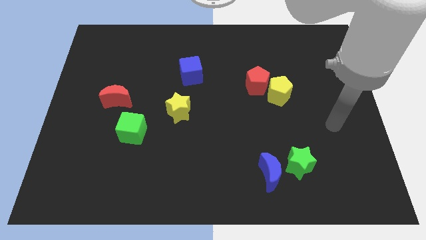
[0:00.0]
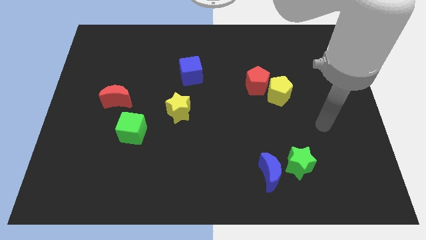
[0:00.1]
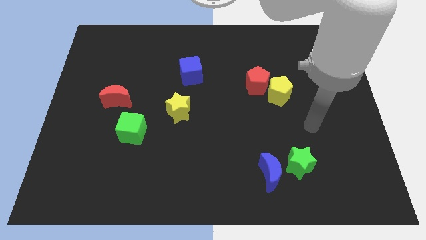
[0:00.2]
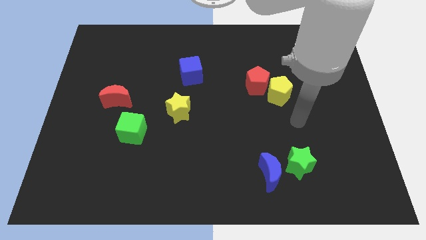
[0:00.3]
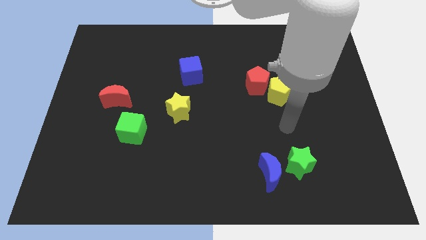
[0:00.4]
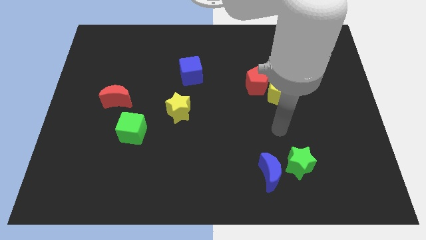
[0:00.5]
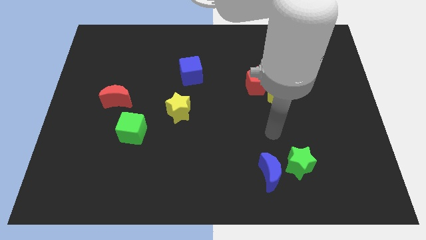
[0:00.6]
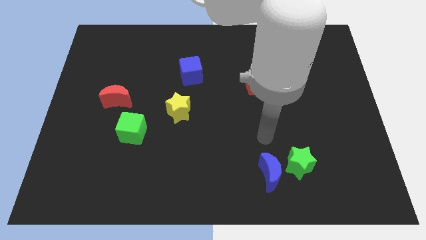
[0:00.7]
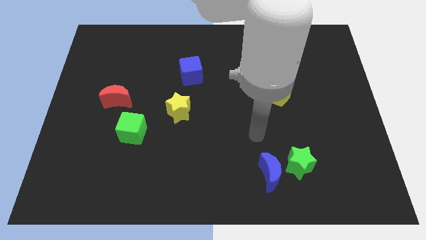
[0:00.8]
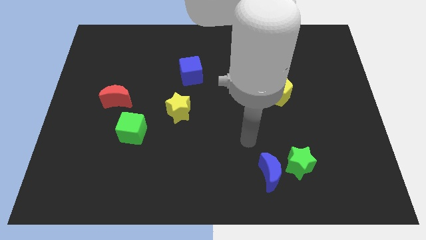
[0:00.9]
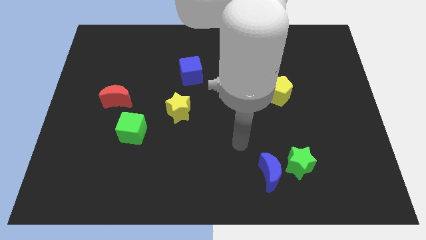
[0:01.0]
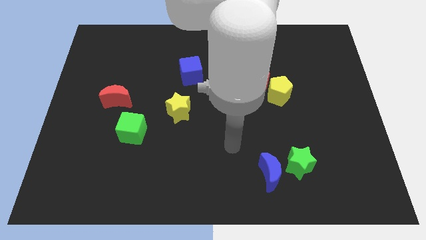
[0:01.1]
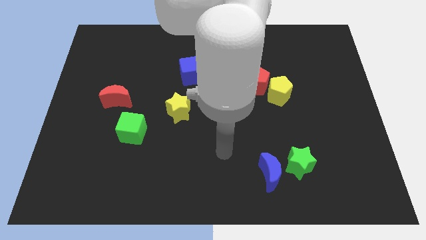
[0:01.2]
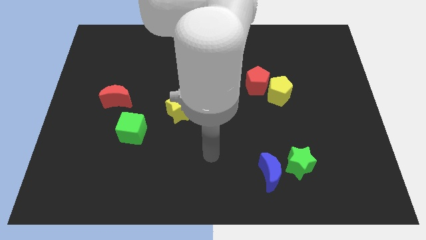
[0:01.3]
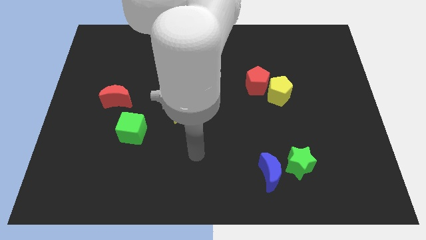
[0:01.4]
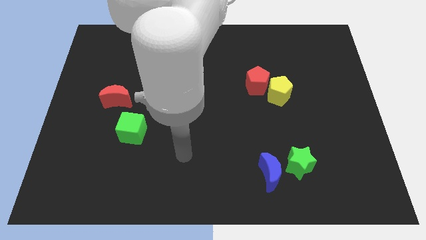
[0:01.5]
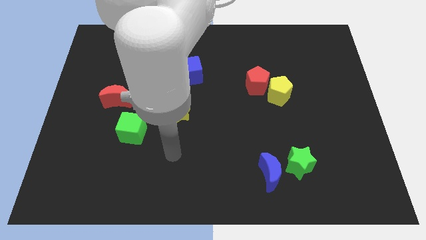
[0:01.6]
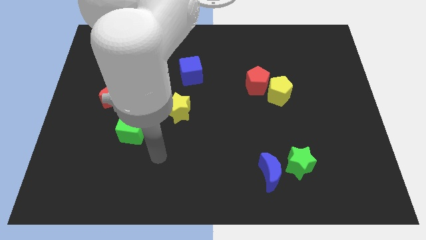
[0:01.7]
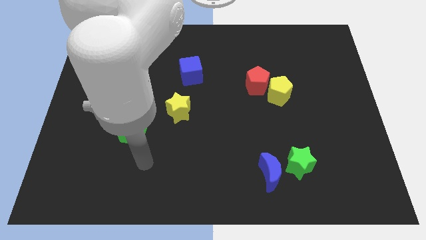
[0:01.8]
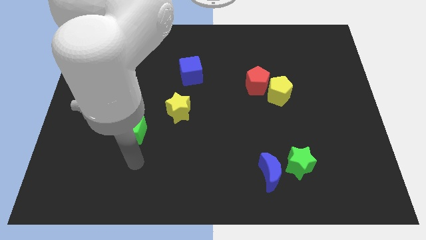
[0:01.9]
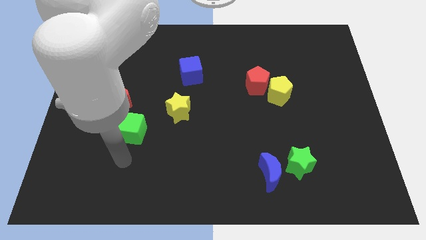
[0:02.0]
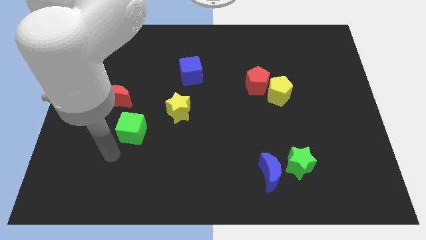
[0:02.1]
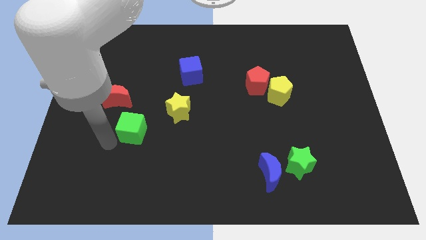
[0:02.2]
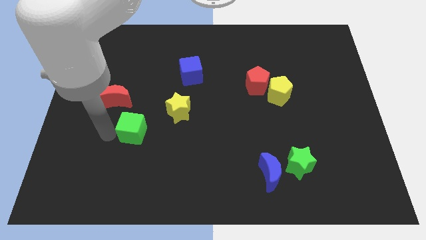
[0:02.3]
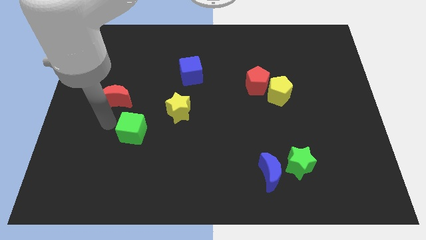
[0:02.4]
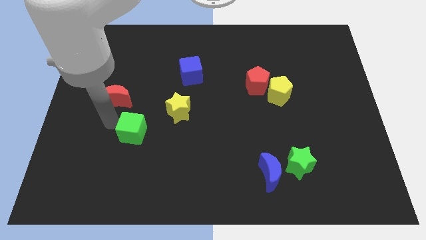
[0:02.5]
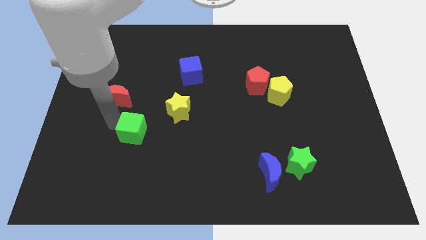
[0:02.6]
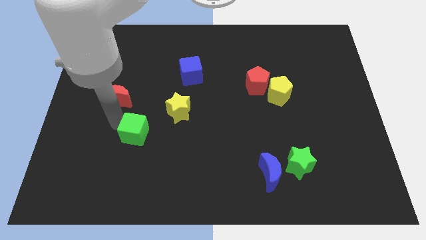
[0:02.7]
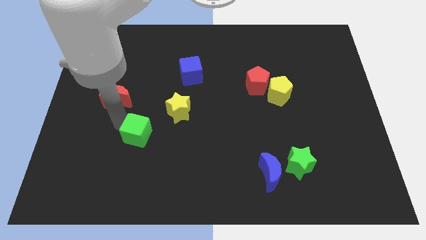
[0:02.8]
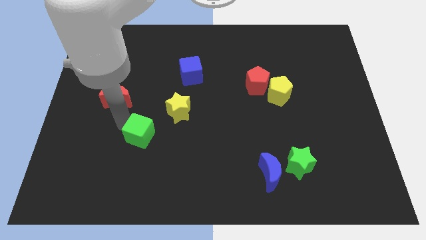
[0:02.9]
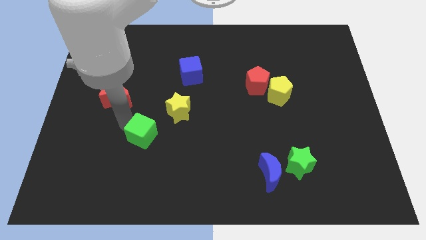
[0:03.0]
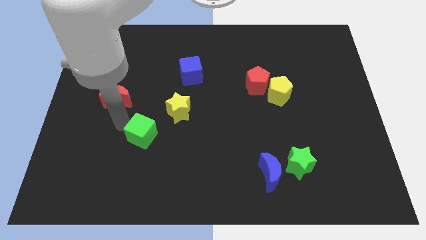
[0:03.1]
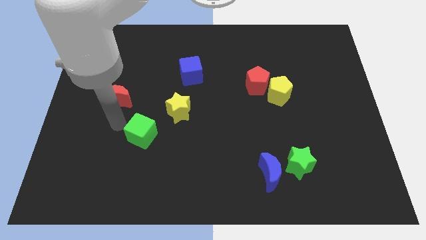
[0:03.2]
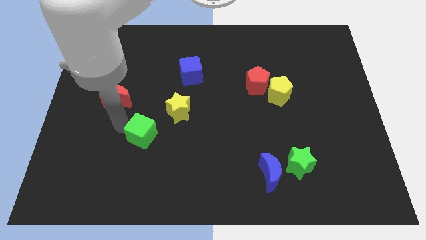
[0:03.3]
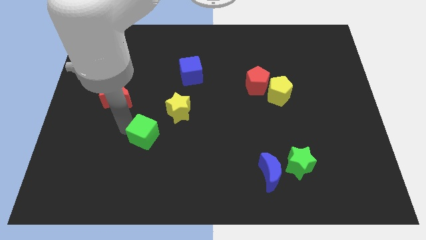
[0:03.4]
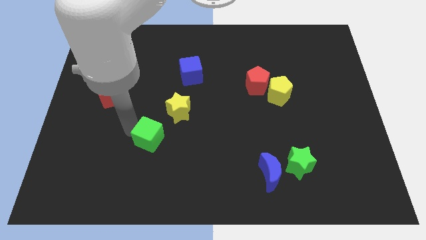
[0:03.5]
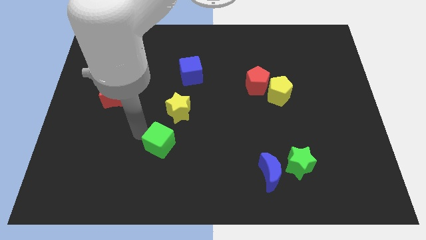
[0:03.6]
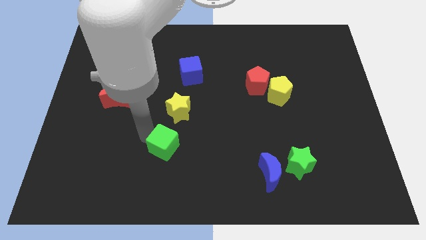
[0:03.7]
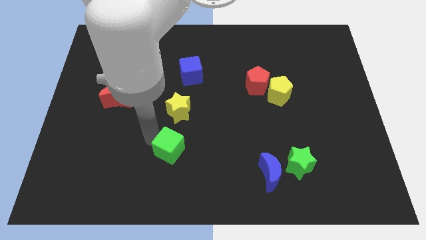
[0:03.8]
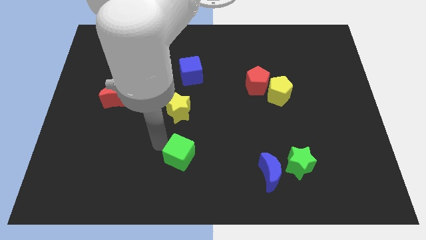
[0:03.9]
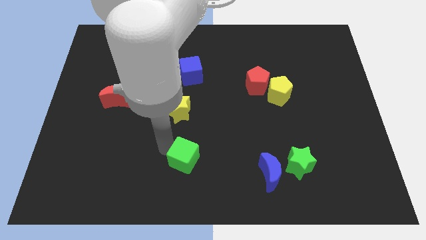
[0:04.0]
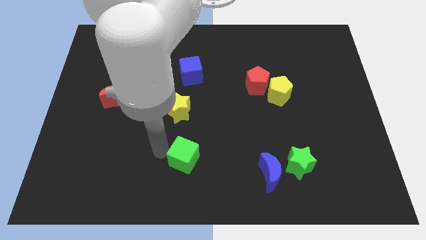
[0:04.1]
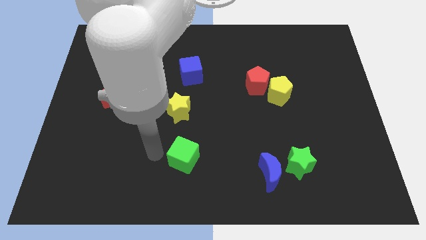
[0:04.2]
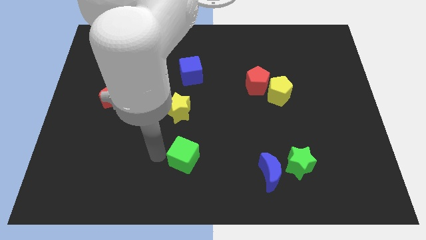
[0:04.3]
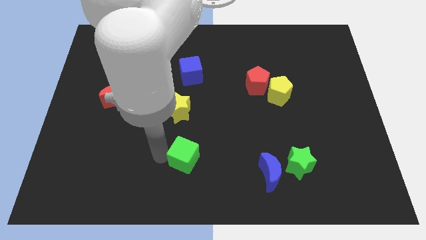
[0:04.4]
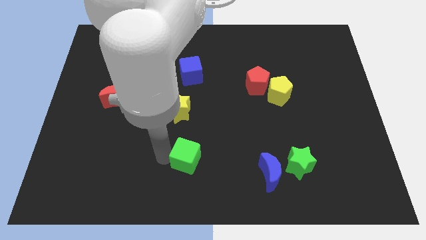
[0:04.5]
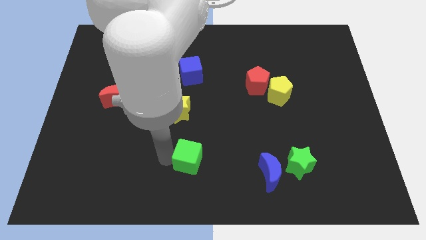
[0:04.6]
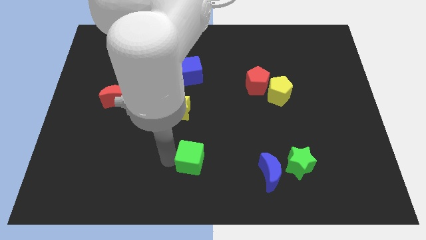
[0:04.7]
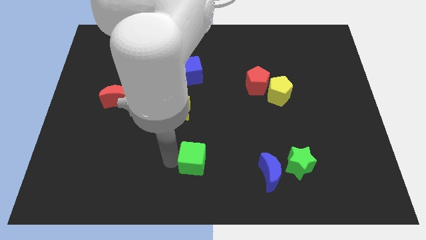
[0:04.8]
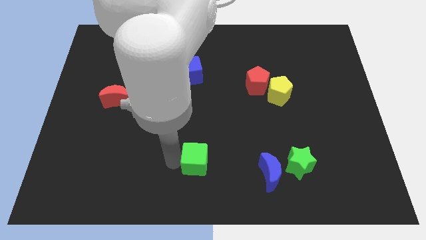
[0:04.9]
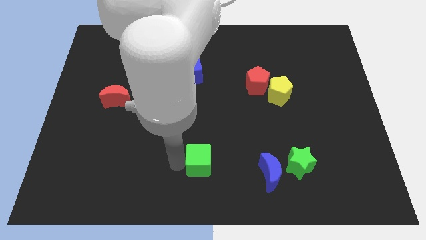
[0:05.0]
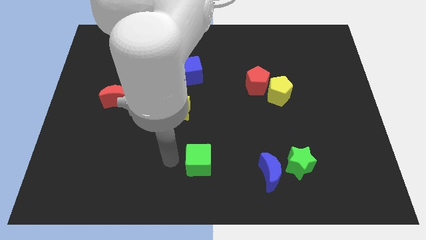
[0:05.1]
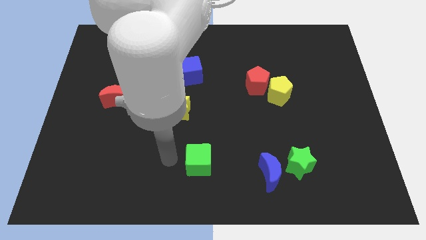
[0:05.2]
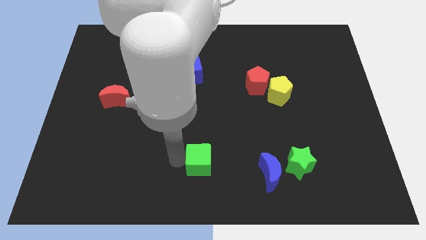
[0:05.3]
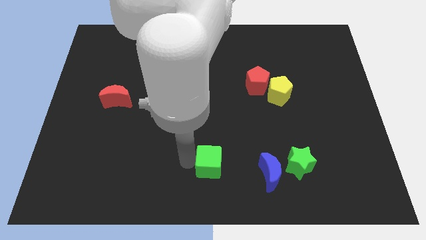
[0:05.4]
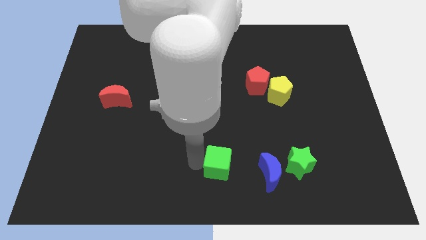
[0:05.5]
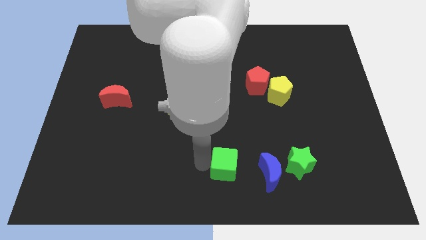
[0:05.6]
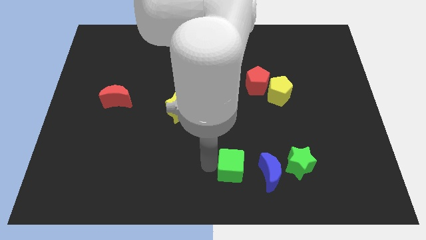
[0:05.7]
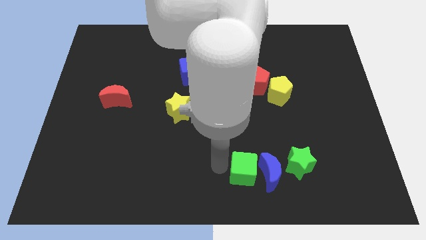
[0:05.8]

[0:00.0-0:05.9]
move the green cube close to the blue moon

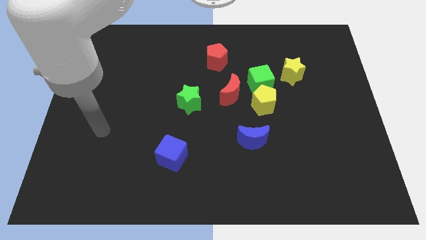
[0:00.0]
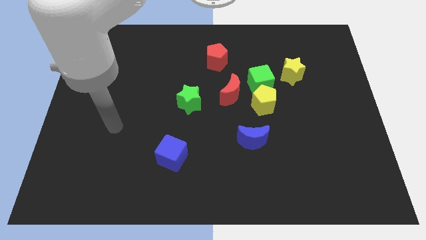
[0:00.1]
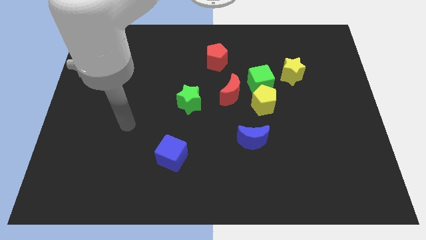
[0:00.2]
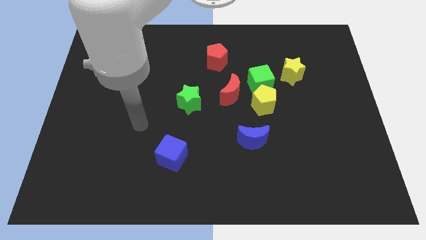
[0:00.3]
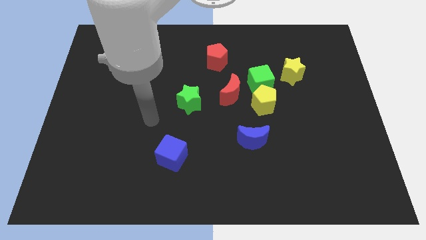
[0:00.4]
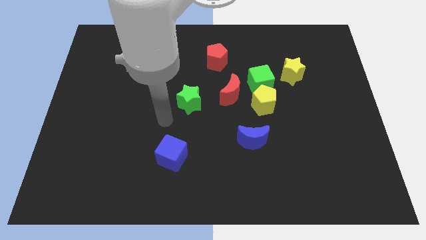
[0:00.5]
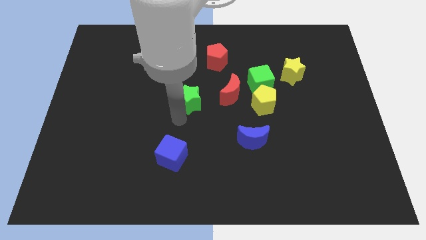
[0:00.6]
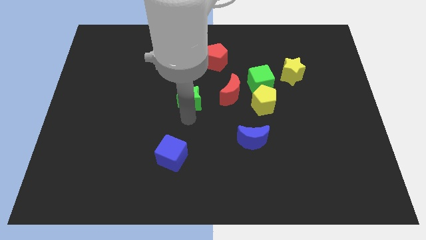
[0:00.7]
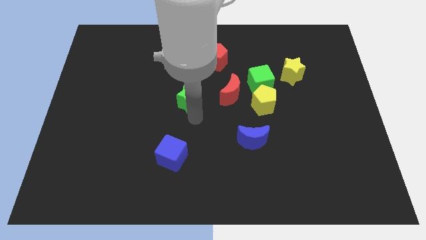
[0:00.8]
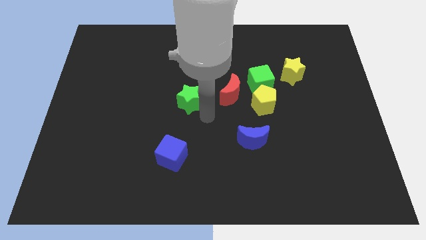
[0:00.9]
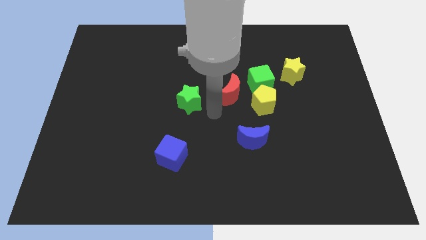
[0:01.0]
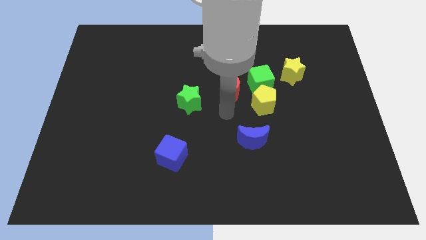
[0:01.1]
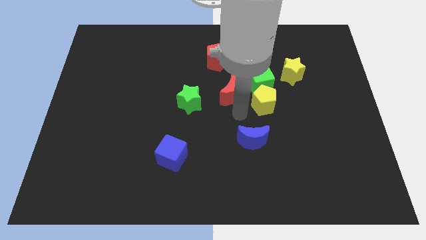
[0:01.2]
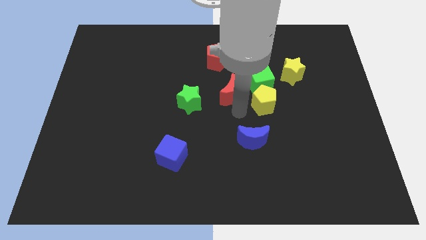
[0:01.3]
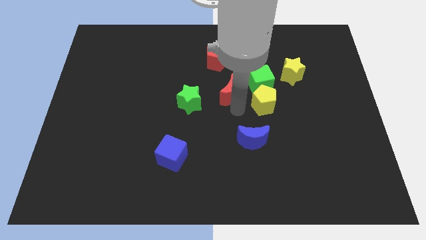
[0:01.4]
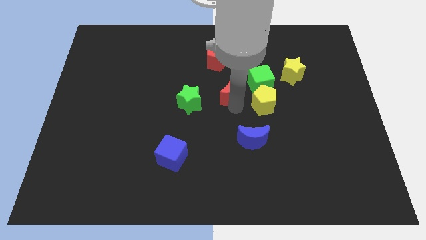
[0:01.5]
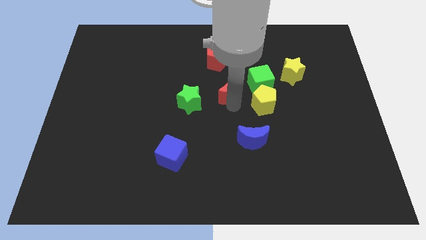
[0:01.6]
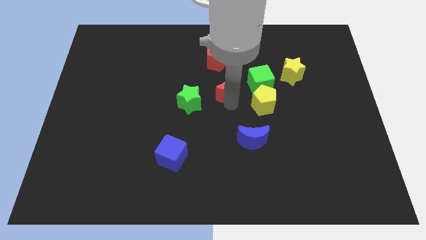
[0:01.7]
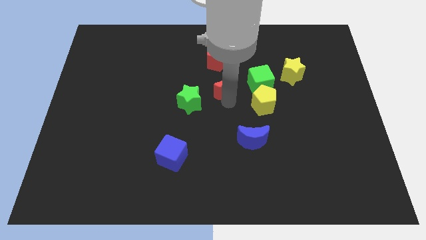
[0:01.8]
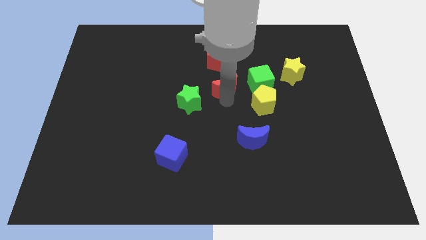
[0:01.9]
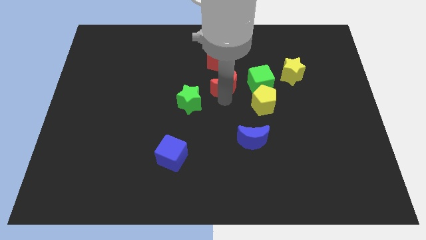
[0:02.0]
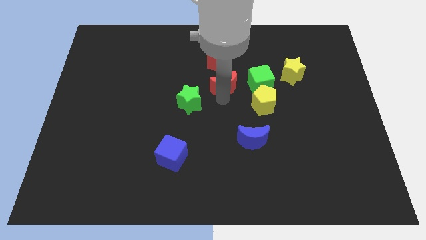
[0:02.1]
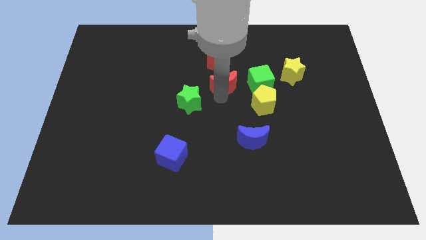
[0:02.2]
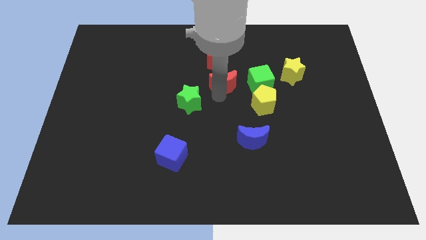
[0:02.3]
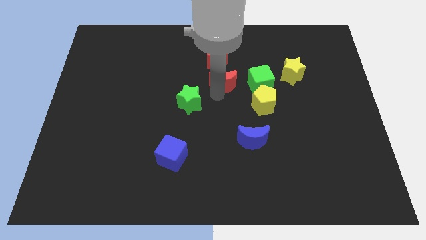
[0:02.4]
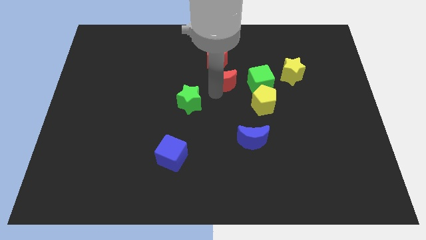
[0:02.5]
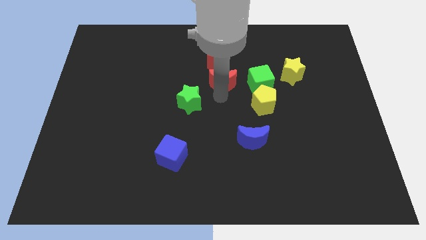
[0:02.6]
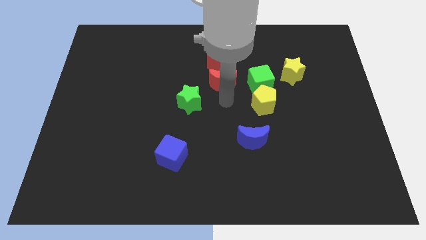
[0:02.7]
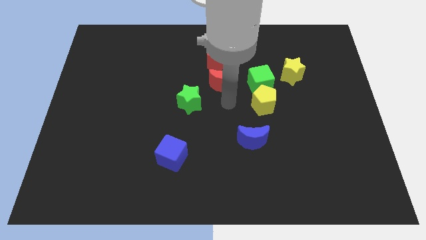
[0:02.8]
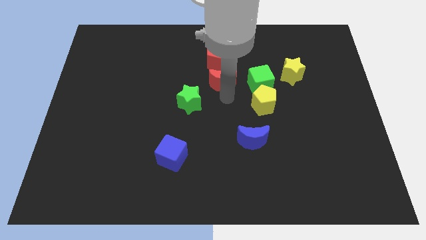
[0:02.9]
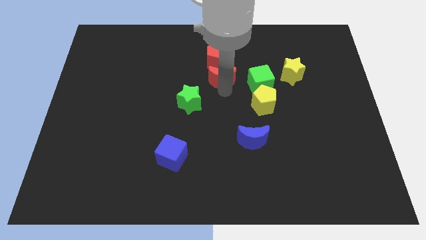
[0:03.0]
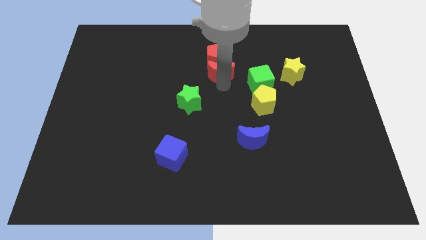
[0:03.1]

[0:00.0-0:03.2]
put the red moon close to the red pentagon
